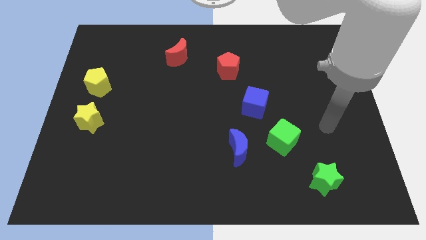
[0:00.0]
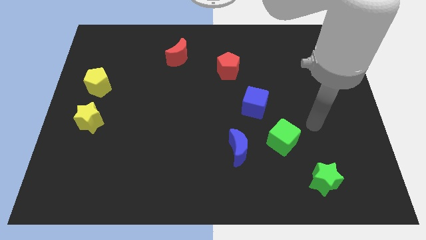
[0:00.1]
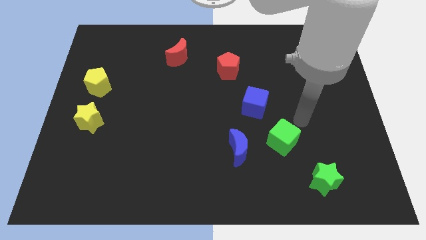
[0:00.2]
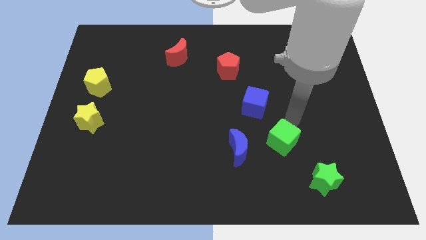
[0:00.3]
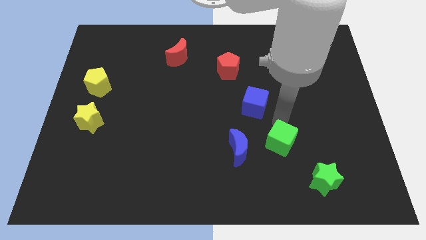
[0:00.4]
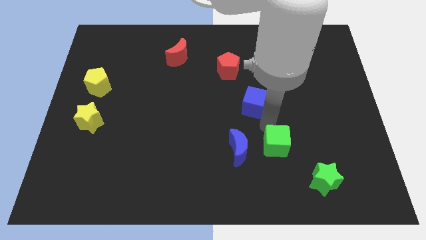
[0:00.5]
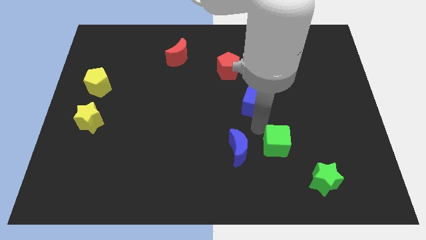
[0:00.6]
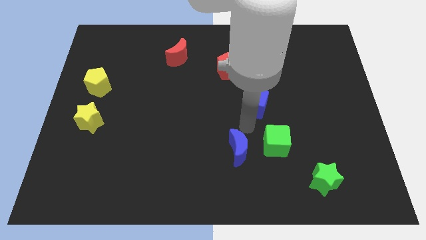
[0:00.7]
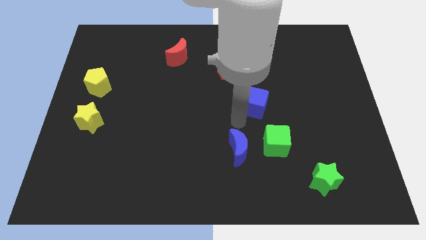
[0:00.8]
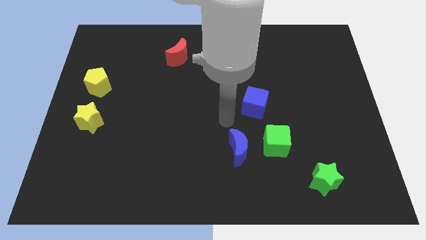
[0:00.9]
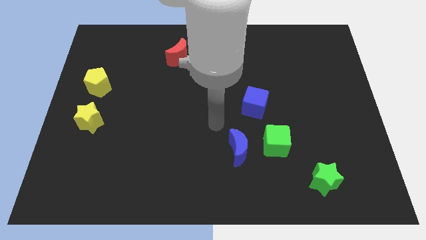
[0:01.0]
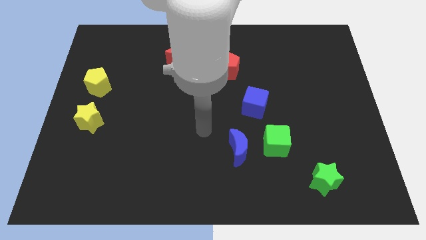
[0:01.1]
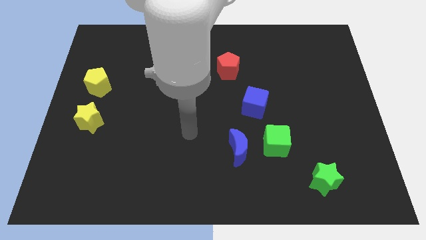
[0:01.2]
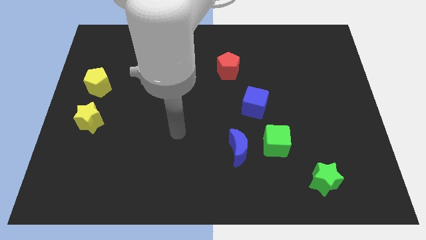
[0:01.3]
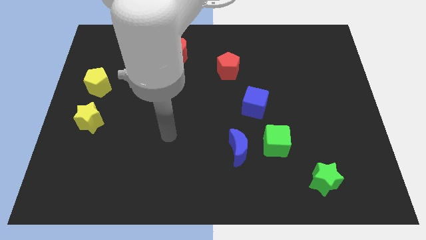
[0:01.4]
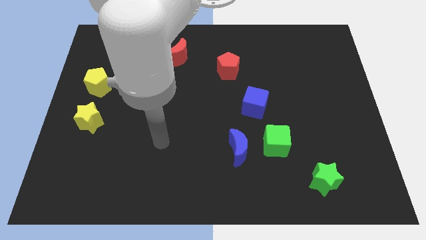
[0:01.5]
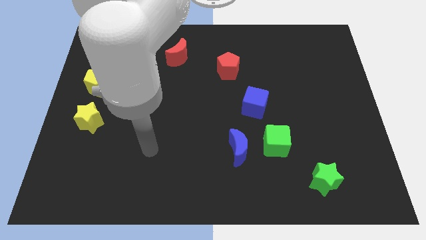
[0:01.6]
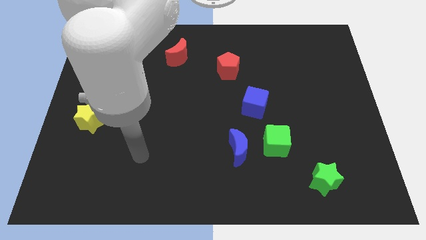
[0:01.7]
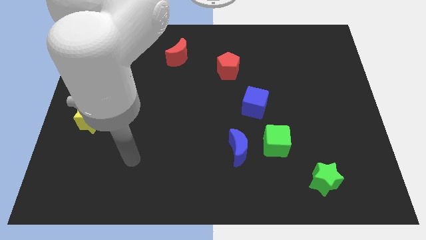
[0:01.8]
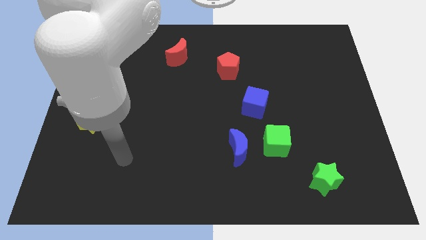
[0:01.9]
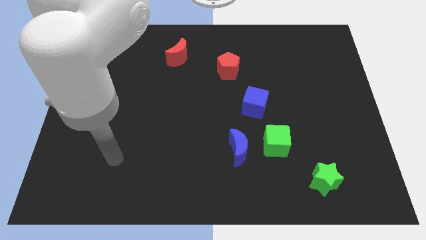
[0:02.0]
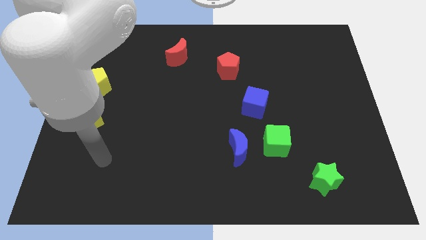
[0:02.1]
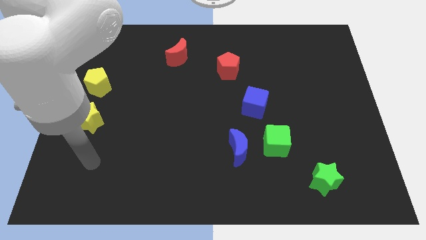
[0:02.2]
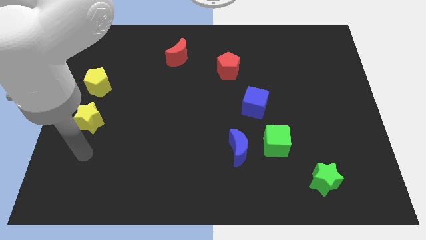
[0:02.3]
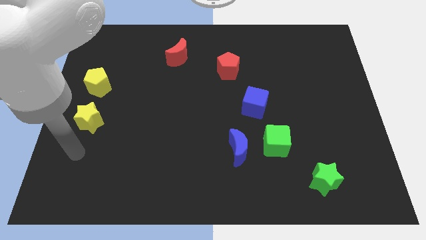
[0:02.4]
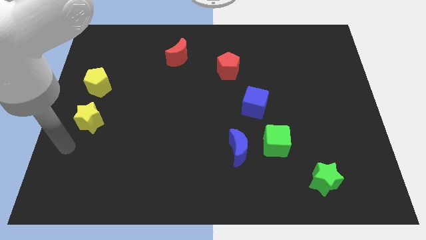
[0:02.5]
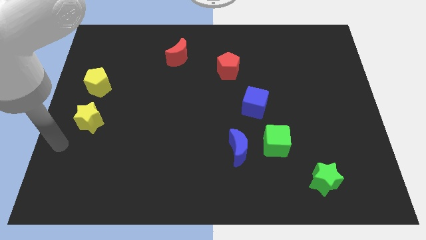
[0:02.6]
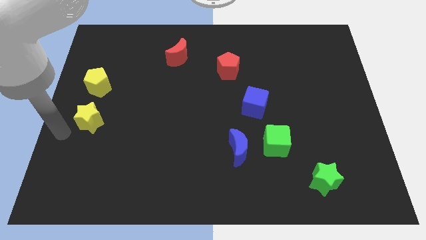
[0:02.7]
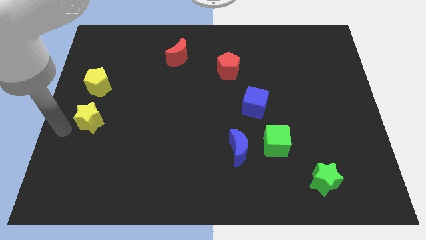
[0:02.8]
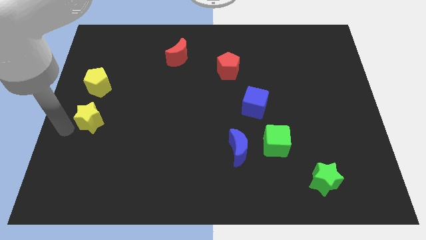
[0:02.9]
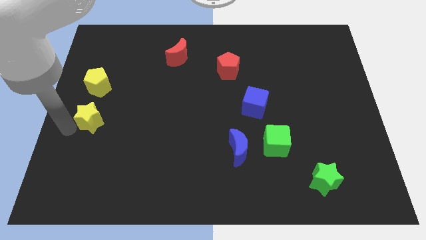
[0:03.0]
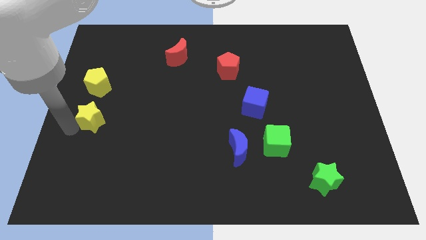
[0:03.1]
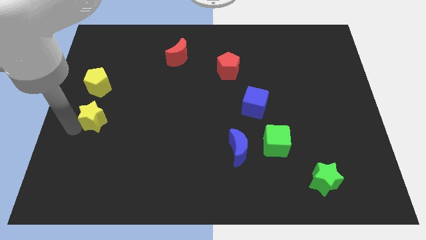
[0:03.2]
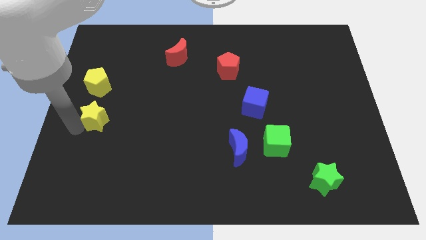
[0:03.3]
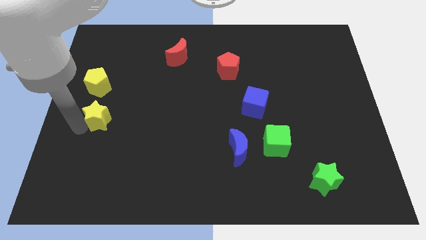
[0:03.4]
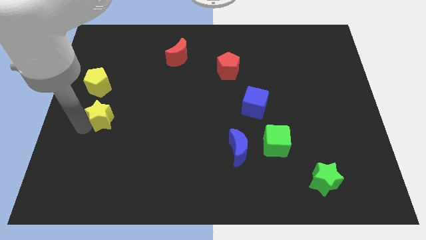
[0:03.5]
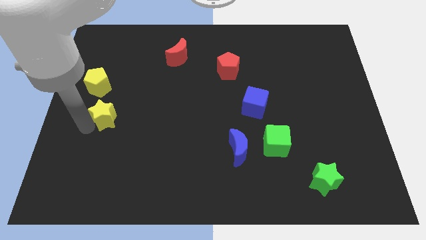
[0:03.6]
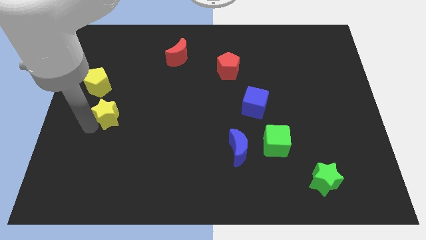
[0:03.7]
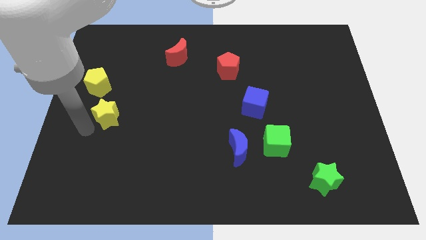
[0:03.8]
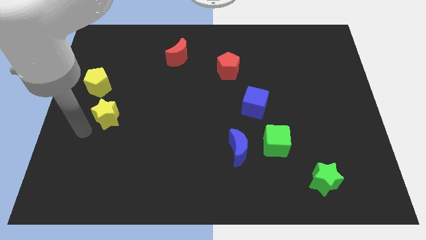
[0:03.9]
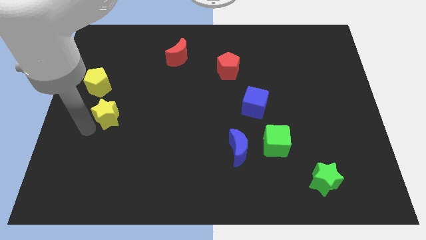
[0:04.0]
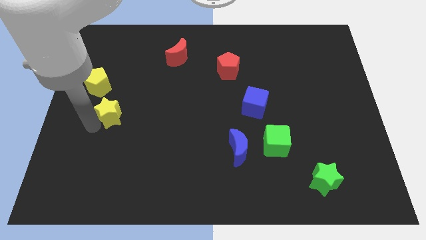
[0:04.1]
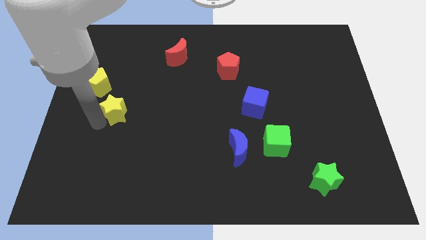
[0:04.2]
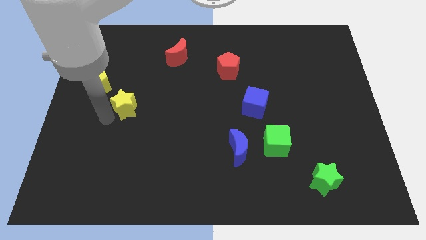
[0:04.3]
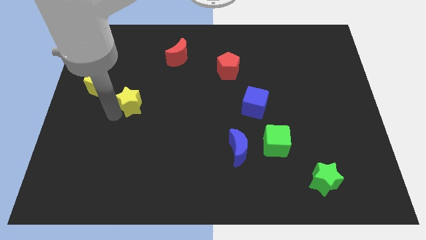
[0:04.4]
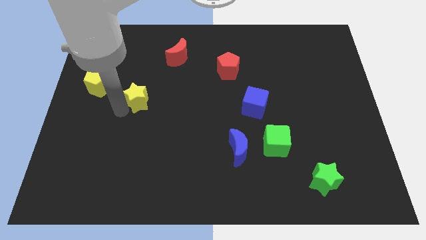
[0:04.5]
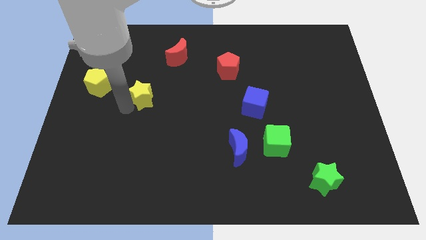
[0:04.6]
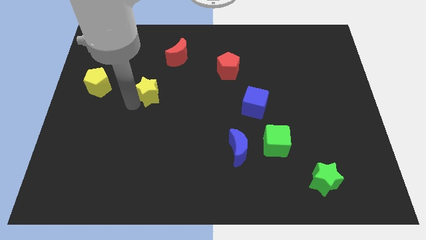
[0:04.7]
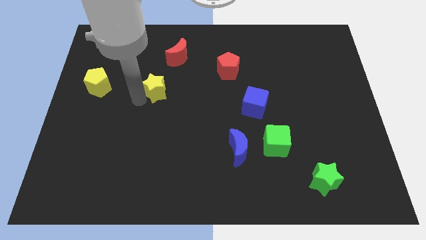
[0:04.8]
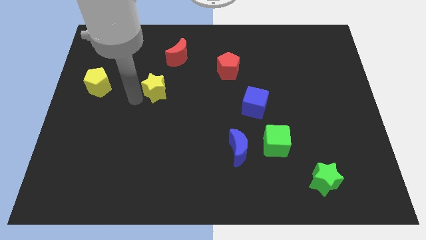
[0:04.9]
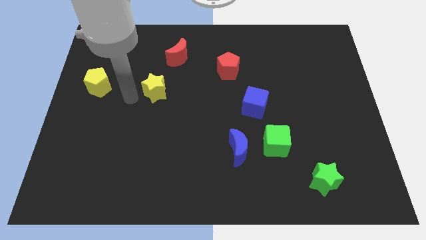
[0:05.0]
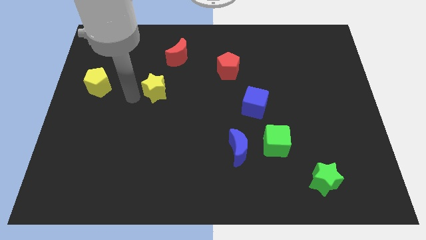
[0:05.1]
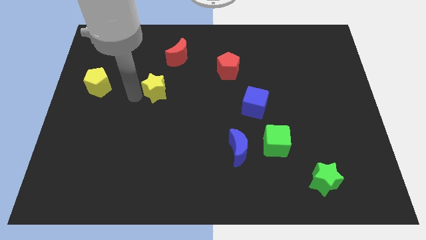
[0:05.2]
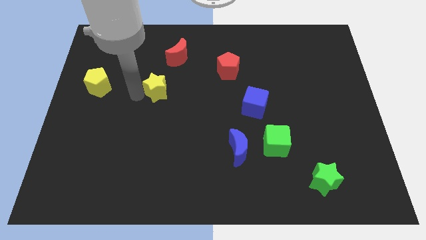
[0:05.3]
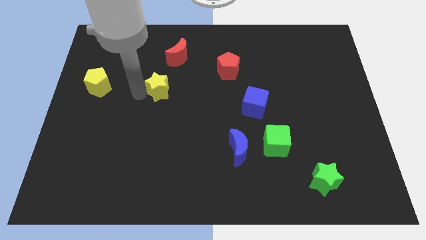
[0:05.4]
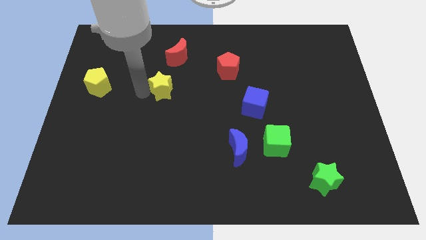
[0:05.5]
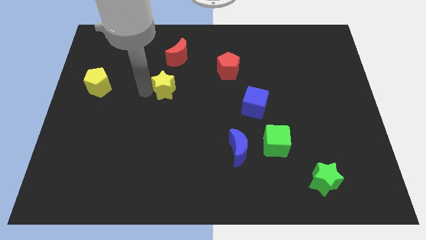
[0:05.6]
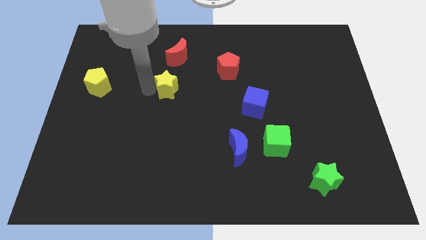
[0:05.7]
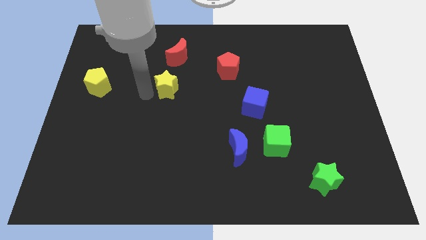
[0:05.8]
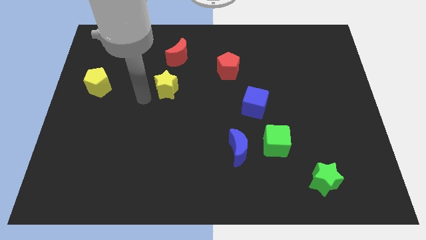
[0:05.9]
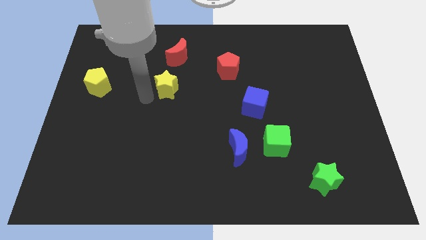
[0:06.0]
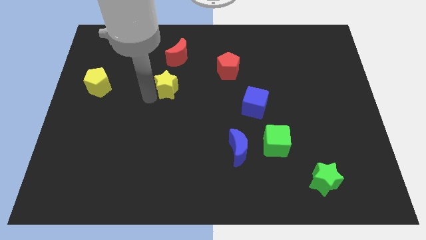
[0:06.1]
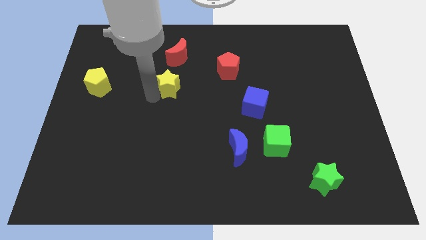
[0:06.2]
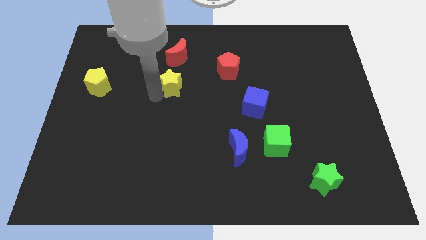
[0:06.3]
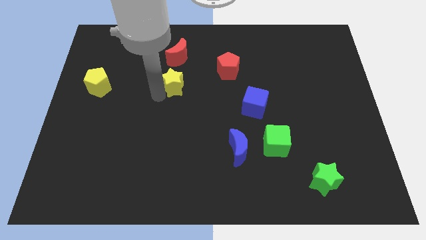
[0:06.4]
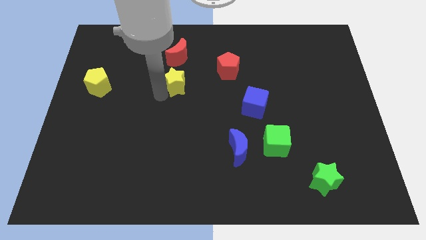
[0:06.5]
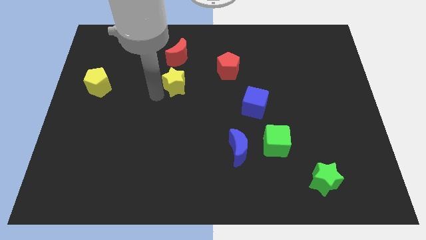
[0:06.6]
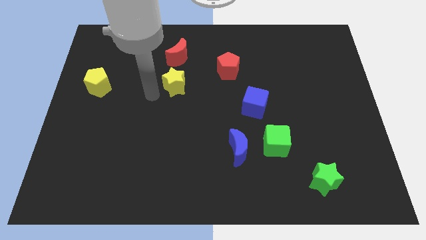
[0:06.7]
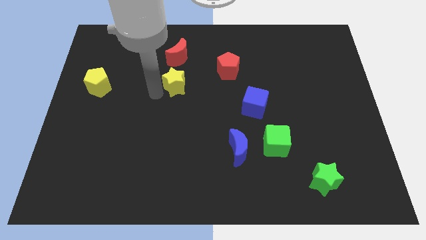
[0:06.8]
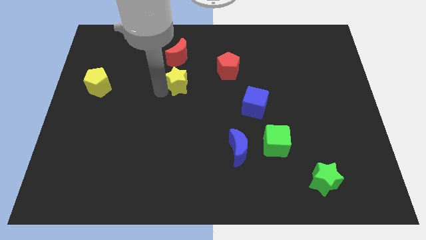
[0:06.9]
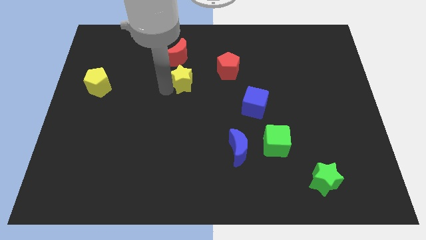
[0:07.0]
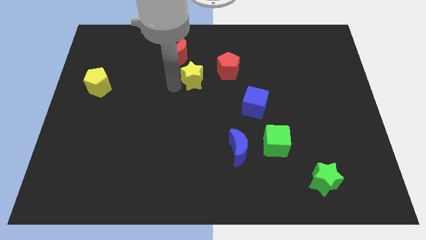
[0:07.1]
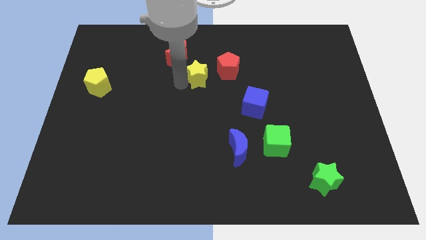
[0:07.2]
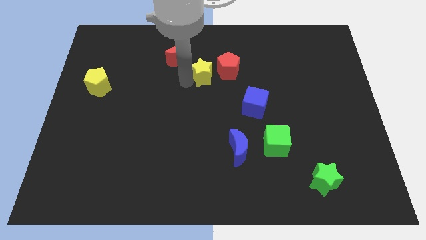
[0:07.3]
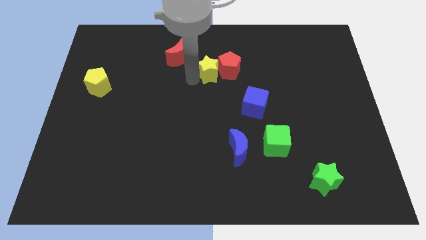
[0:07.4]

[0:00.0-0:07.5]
move the yellow star next to the red pentagon
